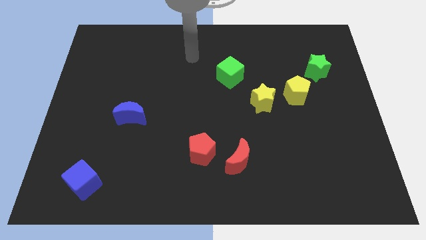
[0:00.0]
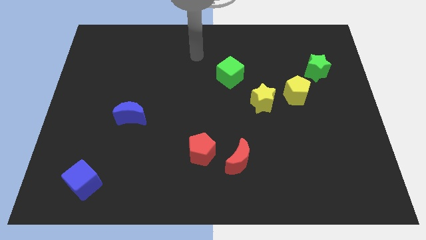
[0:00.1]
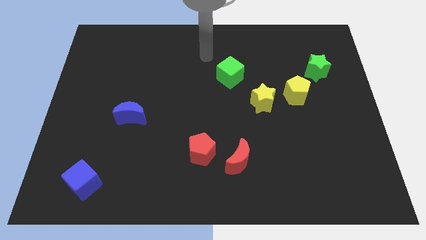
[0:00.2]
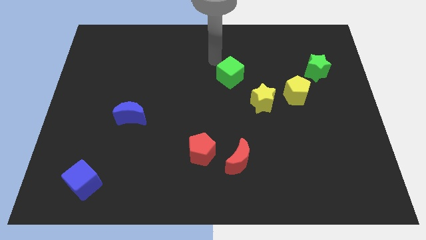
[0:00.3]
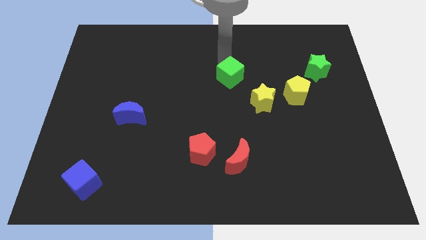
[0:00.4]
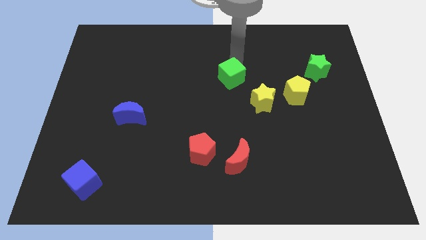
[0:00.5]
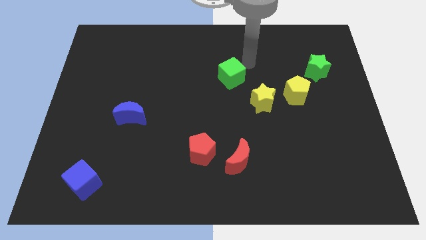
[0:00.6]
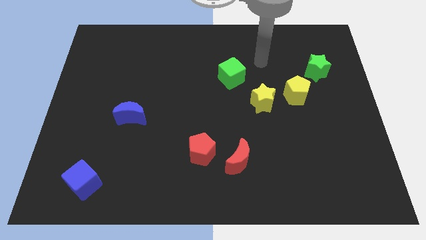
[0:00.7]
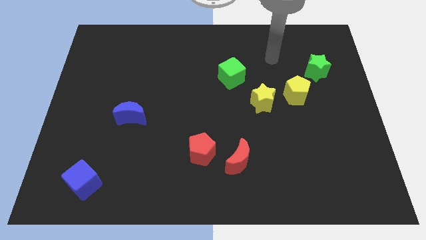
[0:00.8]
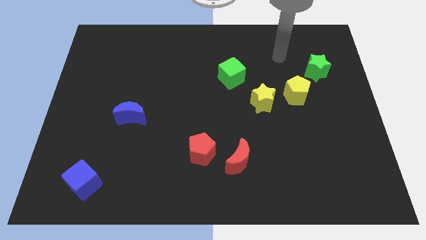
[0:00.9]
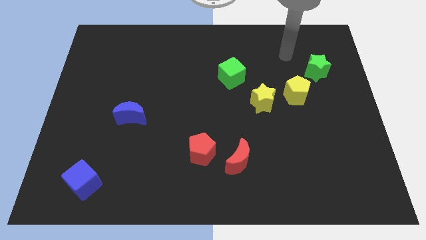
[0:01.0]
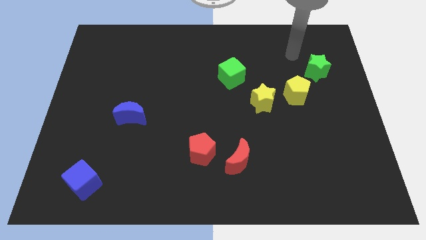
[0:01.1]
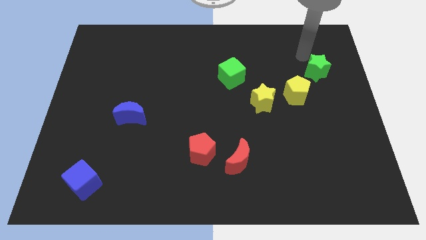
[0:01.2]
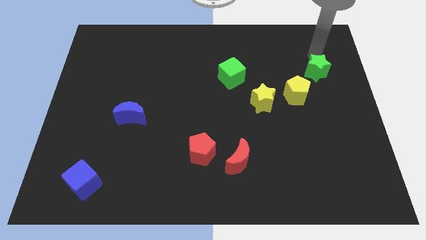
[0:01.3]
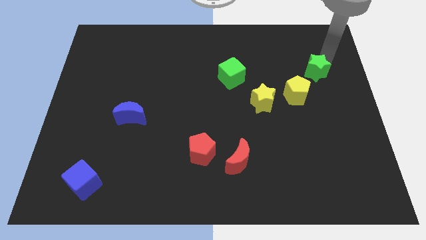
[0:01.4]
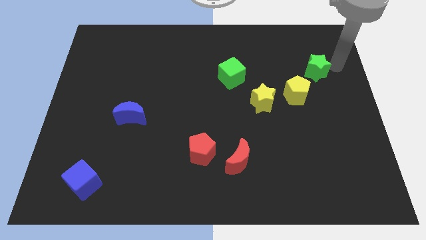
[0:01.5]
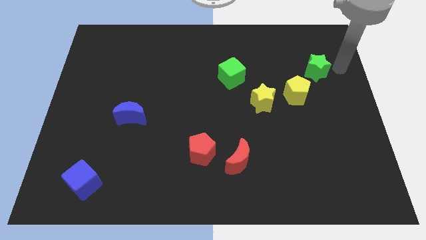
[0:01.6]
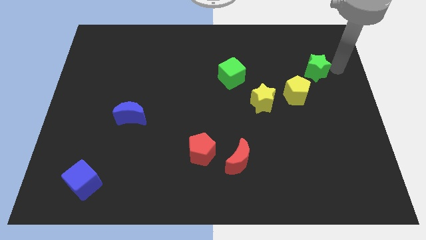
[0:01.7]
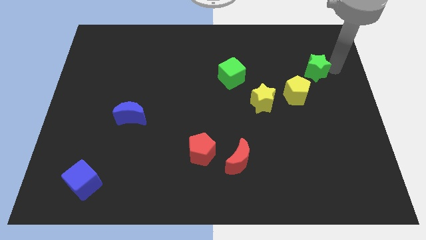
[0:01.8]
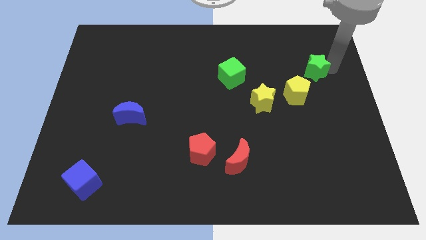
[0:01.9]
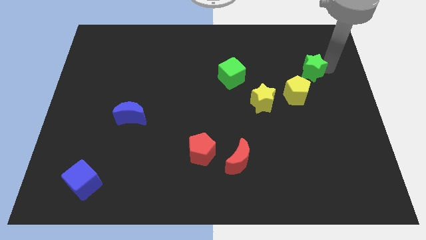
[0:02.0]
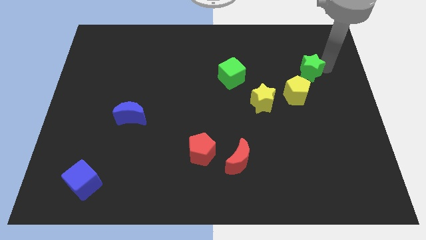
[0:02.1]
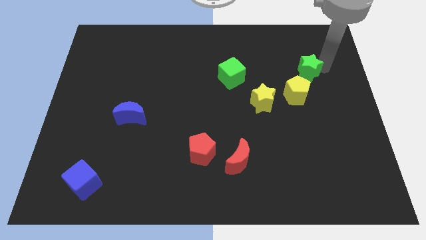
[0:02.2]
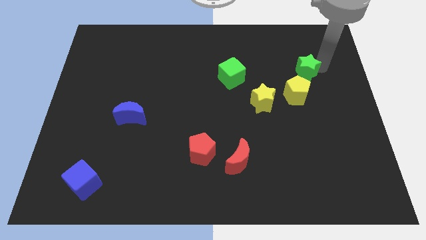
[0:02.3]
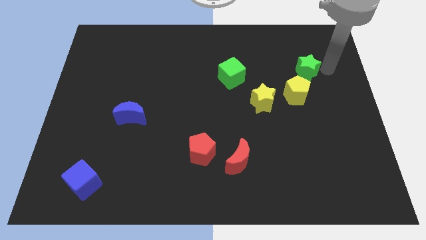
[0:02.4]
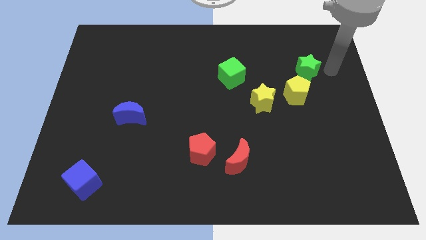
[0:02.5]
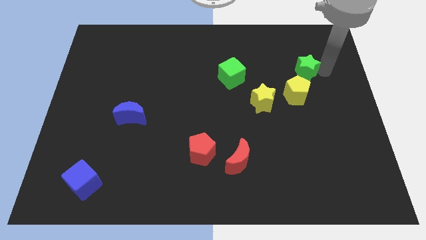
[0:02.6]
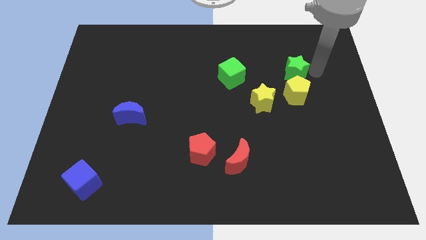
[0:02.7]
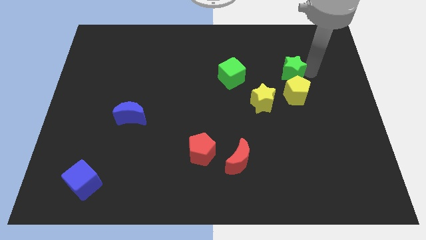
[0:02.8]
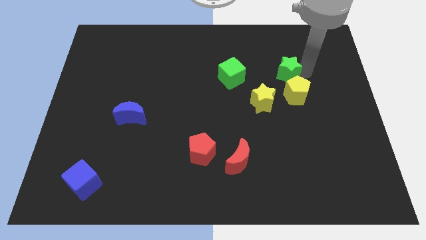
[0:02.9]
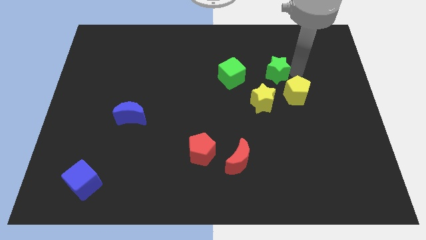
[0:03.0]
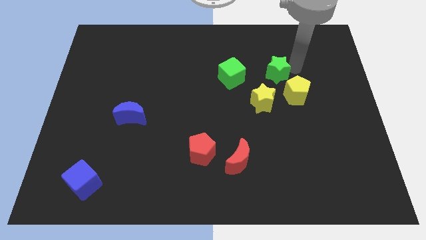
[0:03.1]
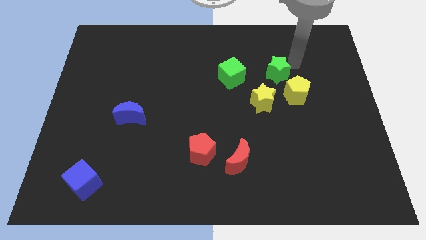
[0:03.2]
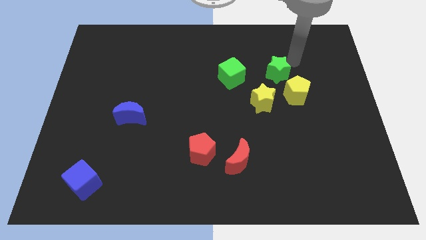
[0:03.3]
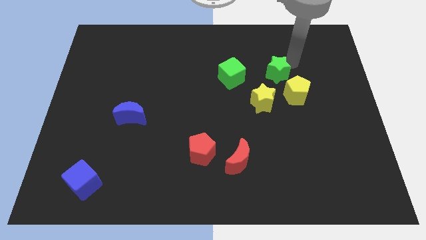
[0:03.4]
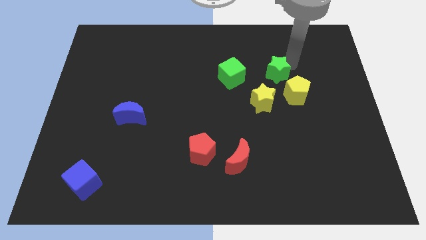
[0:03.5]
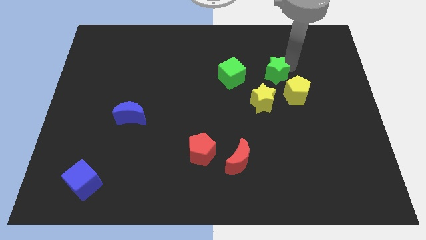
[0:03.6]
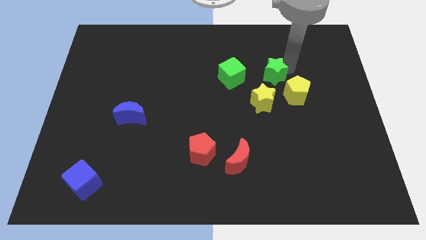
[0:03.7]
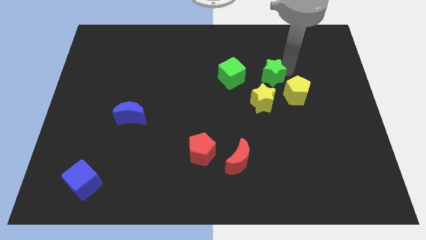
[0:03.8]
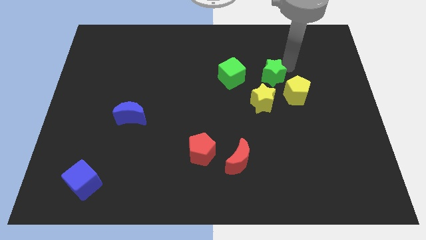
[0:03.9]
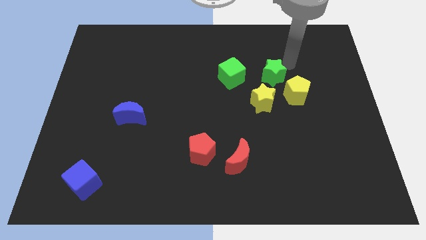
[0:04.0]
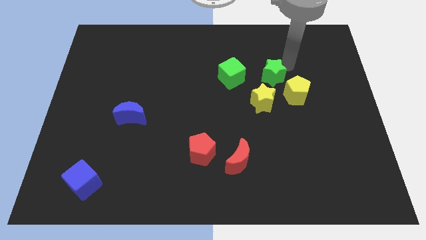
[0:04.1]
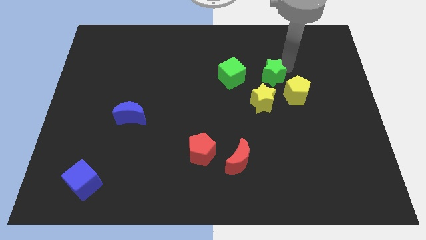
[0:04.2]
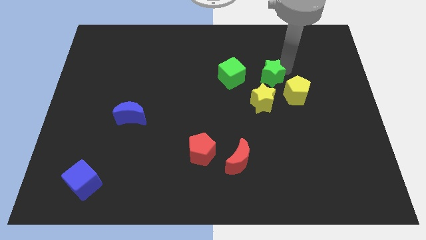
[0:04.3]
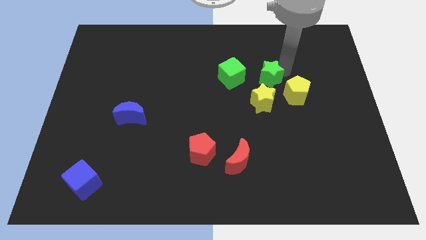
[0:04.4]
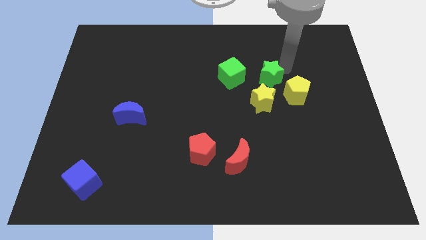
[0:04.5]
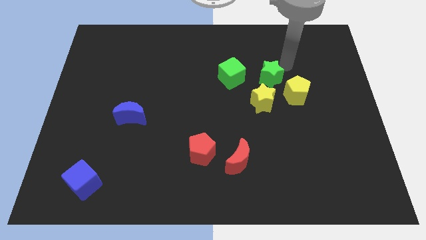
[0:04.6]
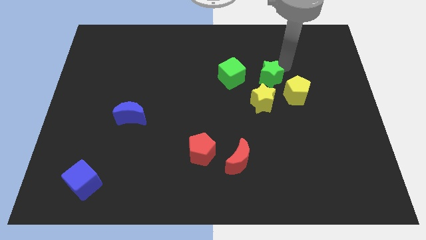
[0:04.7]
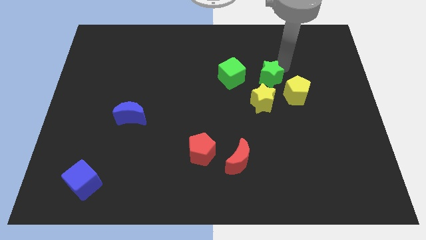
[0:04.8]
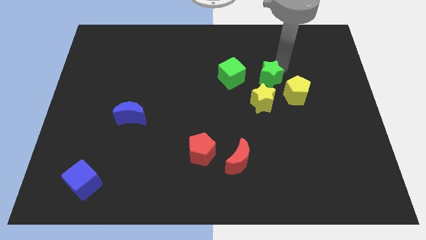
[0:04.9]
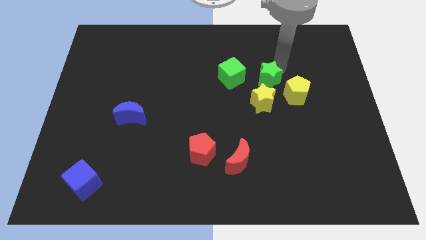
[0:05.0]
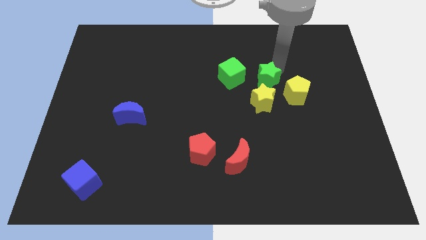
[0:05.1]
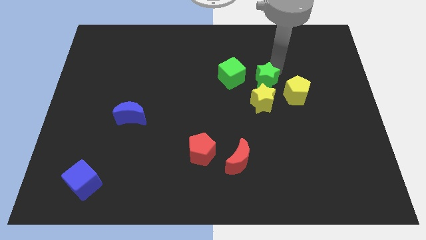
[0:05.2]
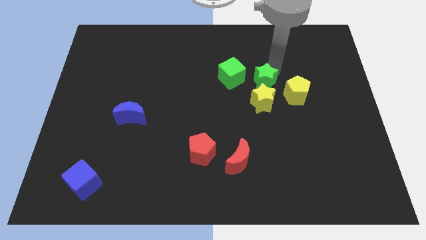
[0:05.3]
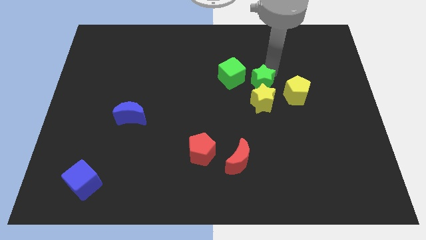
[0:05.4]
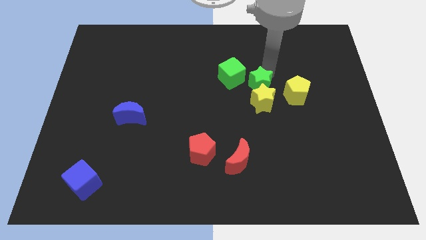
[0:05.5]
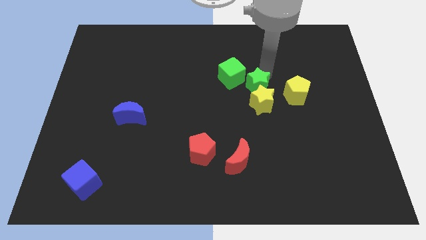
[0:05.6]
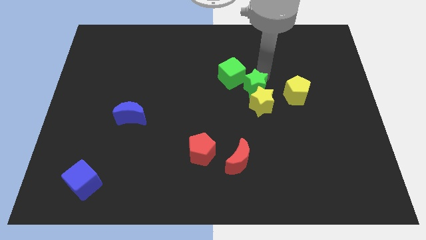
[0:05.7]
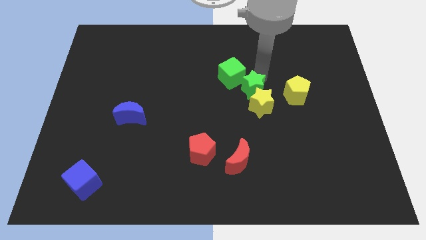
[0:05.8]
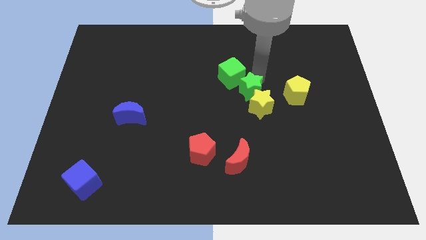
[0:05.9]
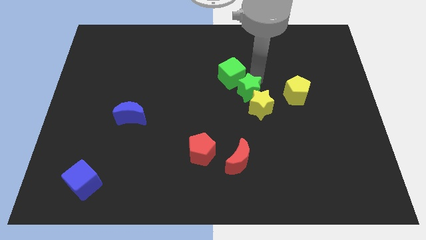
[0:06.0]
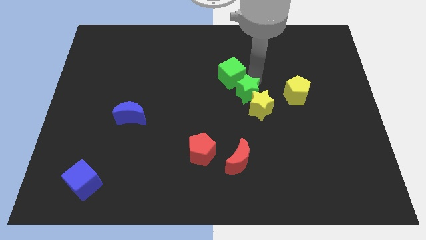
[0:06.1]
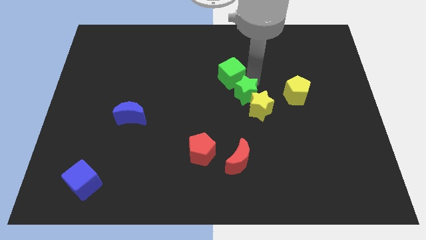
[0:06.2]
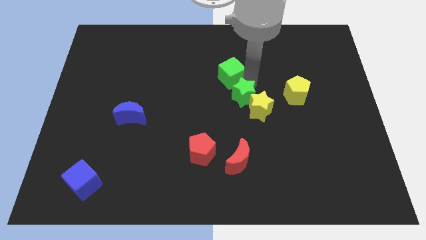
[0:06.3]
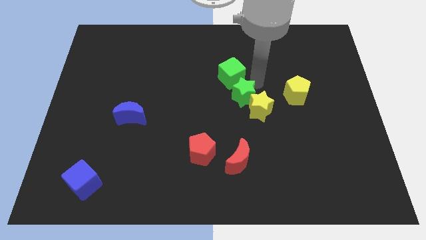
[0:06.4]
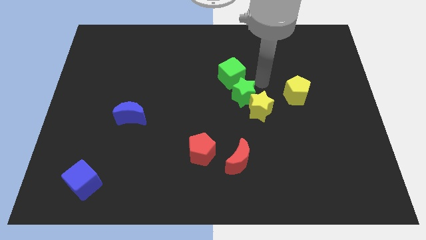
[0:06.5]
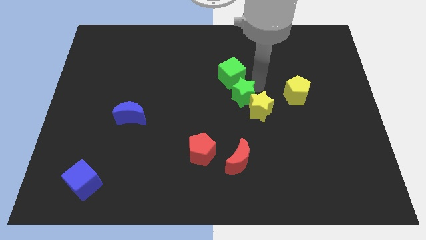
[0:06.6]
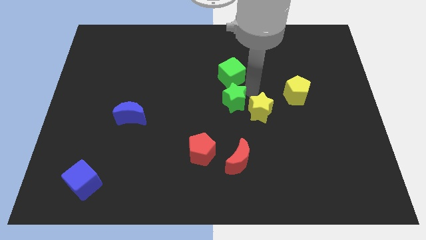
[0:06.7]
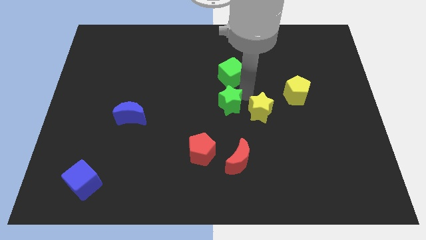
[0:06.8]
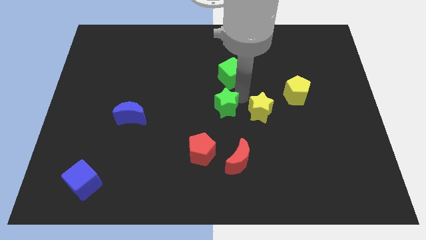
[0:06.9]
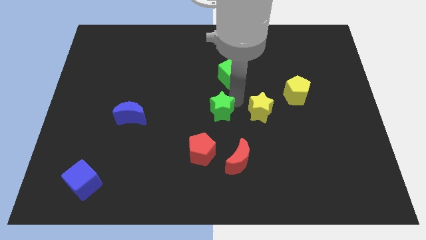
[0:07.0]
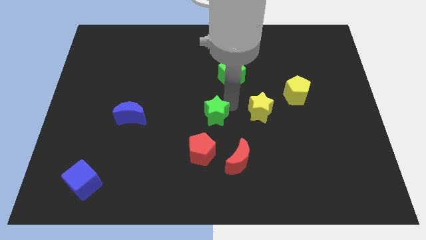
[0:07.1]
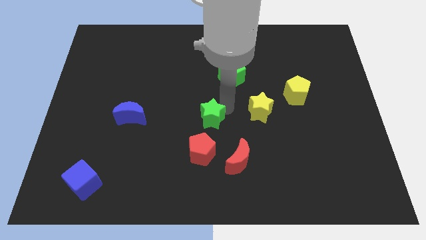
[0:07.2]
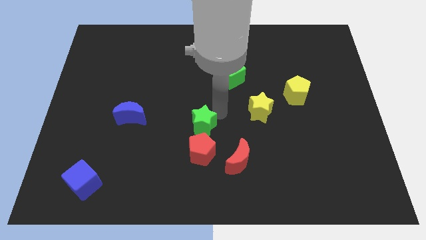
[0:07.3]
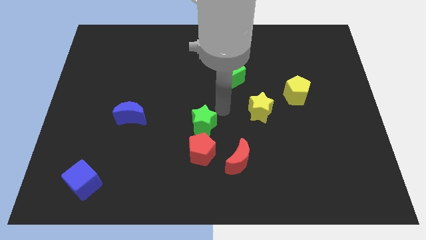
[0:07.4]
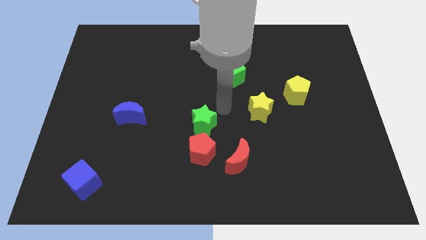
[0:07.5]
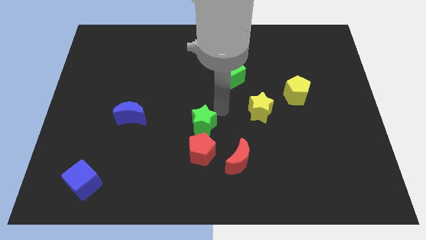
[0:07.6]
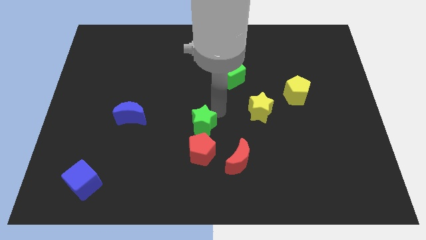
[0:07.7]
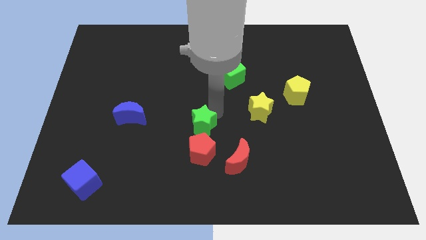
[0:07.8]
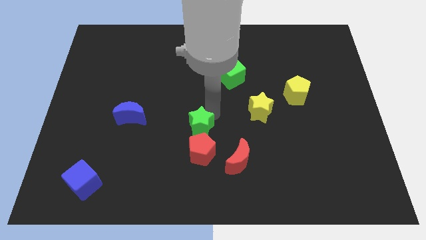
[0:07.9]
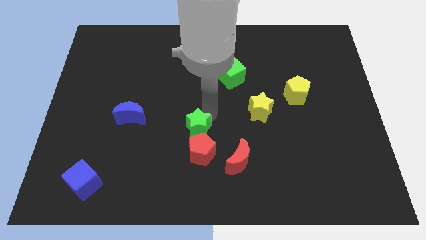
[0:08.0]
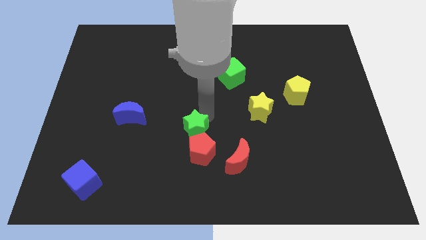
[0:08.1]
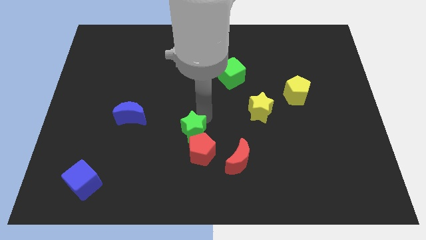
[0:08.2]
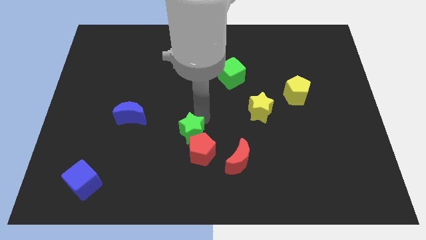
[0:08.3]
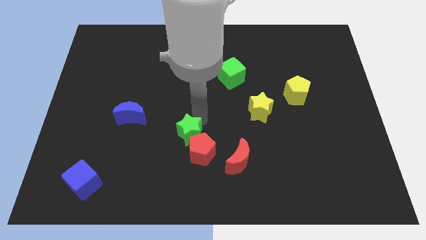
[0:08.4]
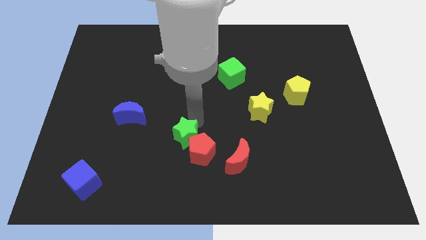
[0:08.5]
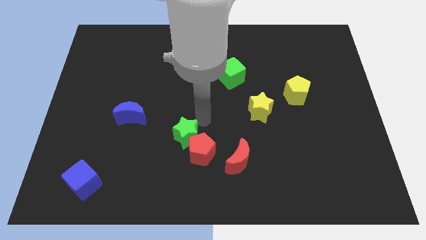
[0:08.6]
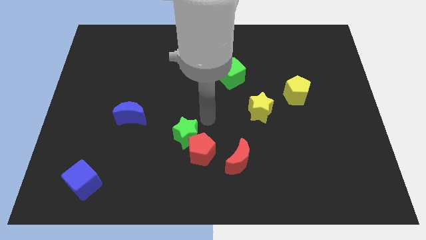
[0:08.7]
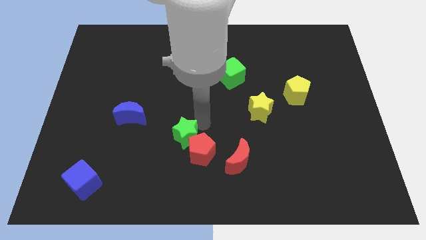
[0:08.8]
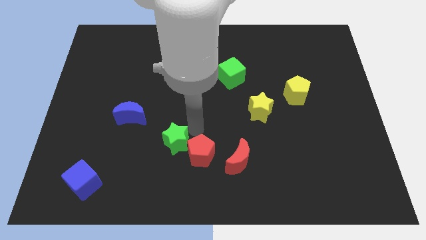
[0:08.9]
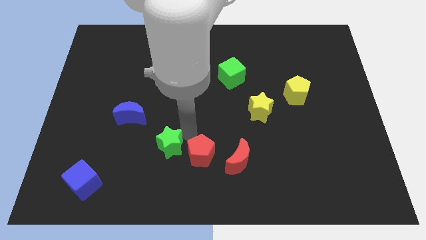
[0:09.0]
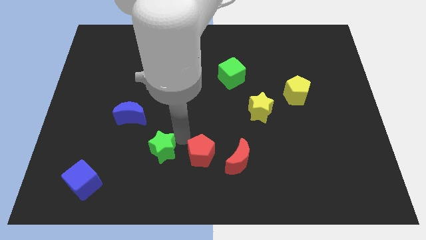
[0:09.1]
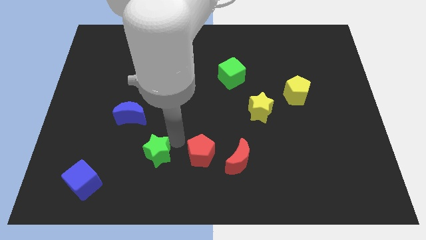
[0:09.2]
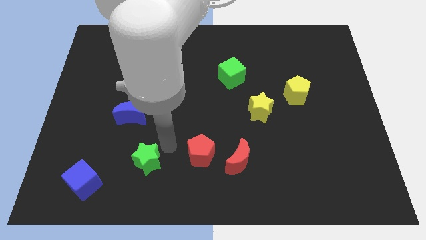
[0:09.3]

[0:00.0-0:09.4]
put the green star just right of the blue cube
